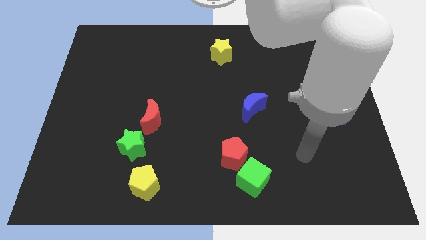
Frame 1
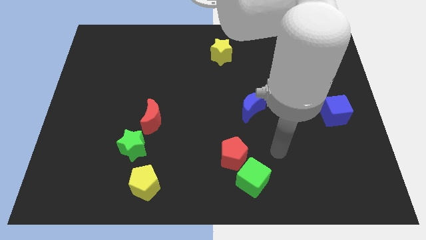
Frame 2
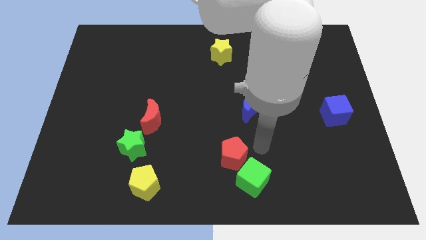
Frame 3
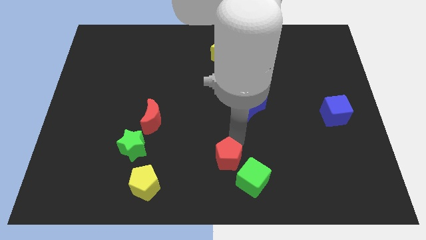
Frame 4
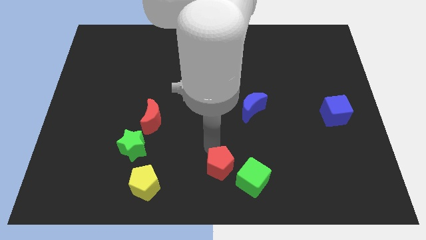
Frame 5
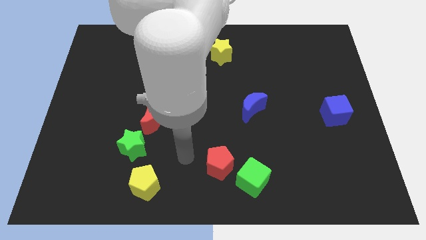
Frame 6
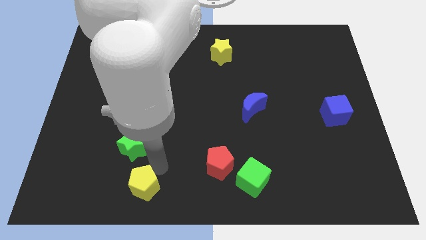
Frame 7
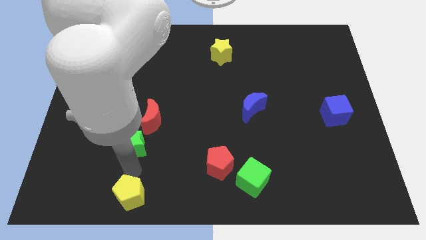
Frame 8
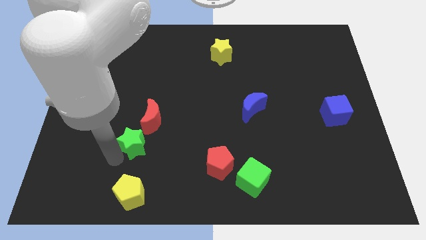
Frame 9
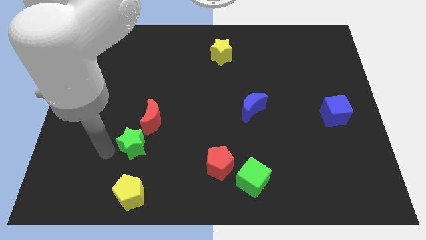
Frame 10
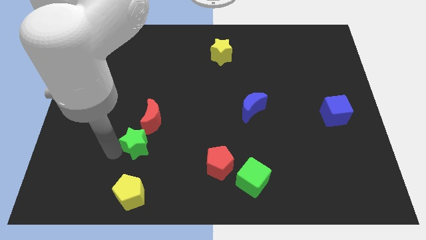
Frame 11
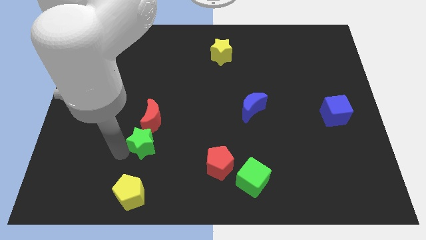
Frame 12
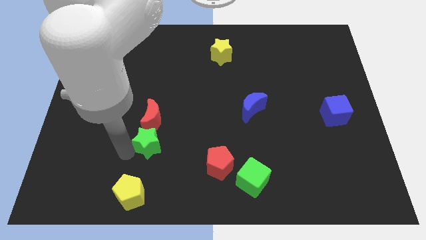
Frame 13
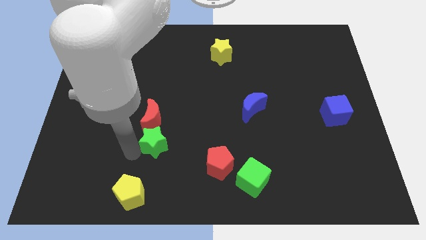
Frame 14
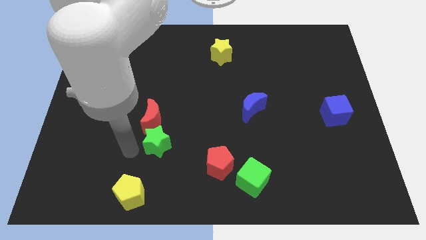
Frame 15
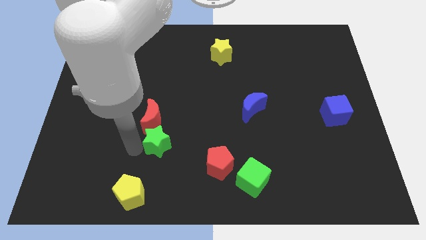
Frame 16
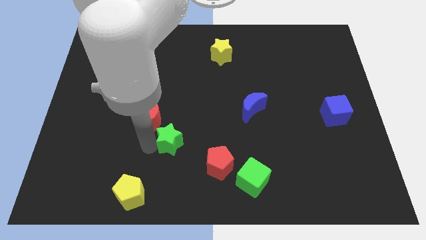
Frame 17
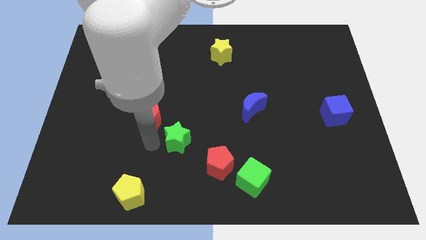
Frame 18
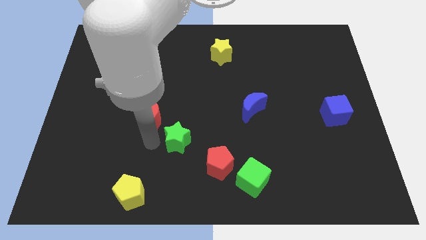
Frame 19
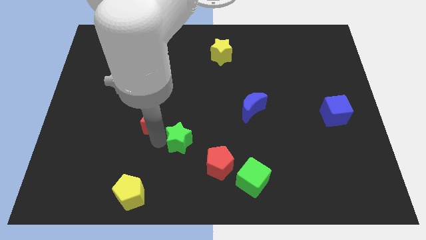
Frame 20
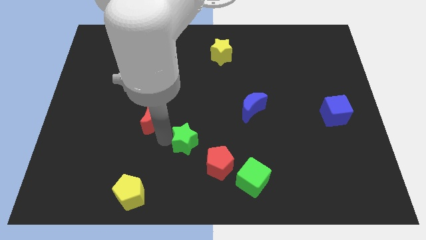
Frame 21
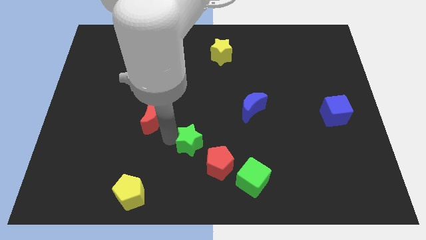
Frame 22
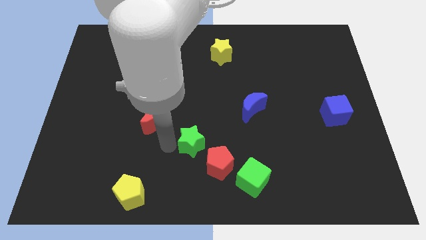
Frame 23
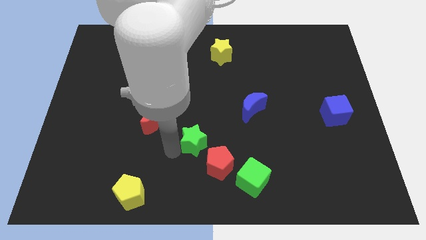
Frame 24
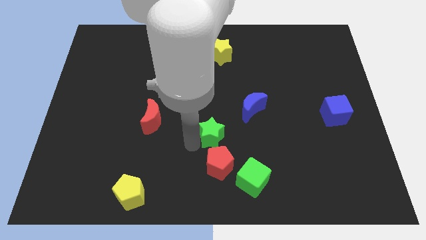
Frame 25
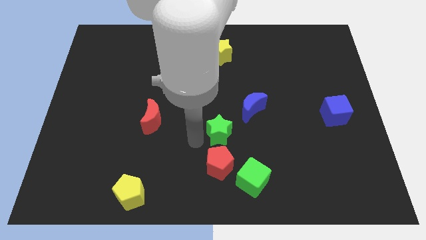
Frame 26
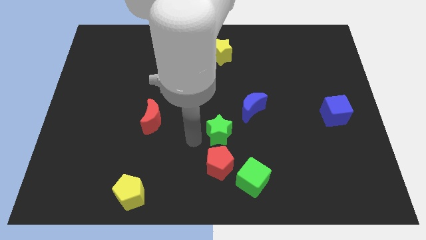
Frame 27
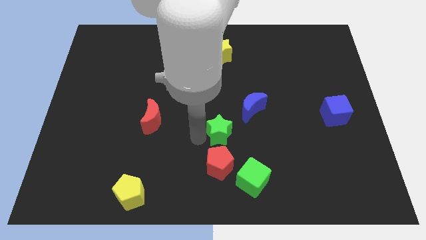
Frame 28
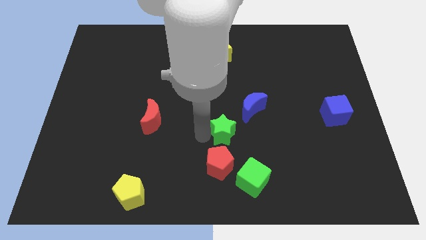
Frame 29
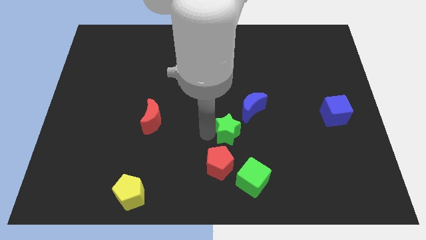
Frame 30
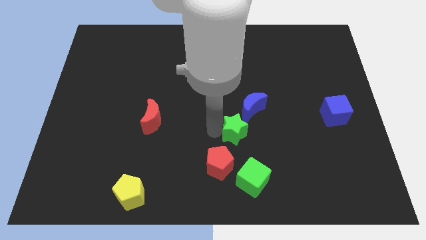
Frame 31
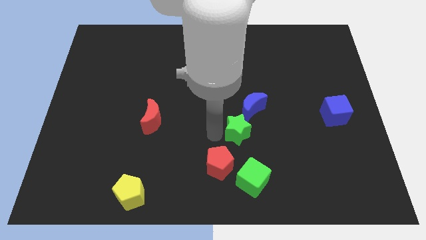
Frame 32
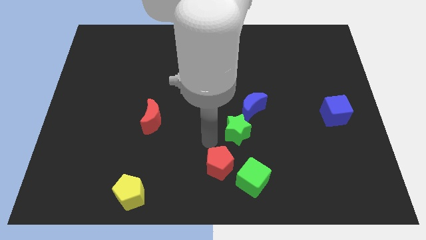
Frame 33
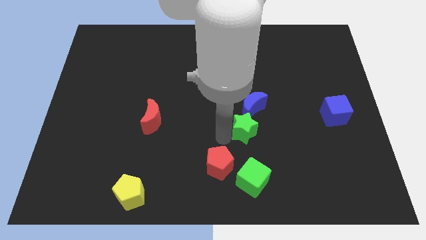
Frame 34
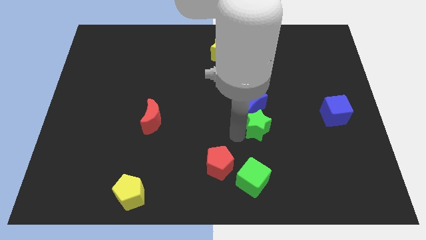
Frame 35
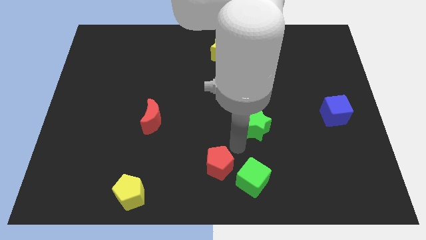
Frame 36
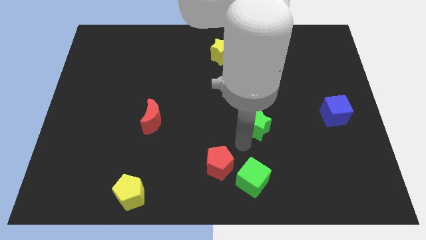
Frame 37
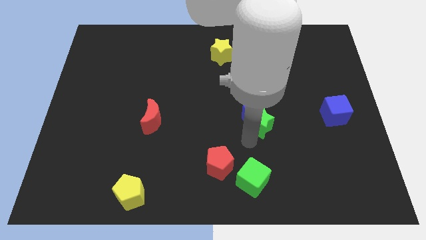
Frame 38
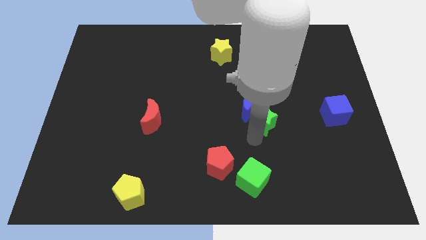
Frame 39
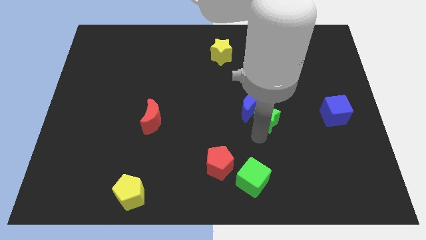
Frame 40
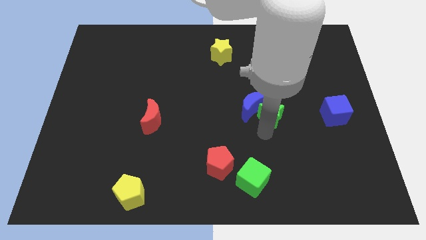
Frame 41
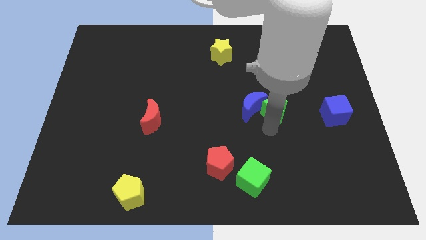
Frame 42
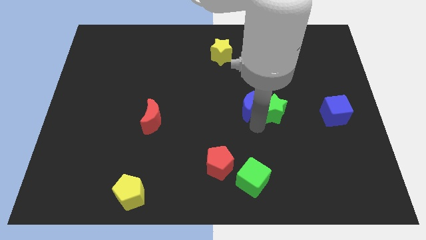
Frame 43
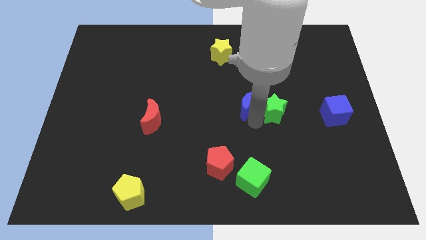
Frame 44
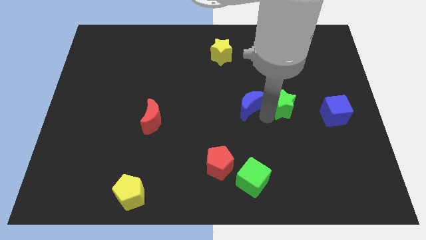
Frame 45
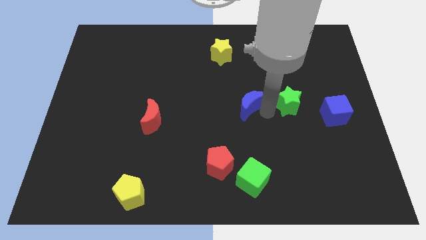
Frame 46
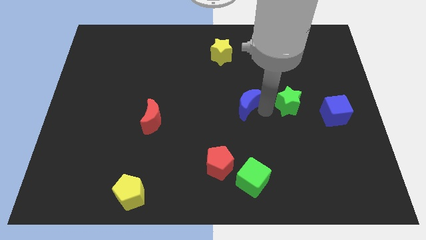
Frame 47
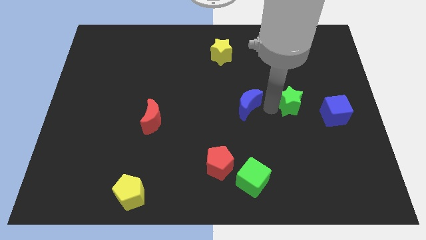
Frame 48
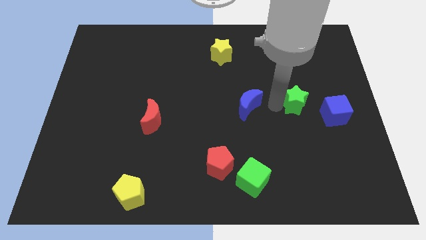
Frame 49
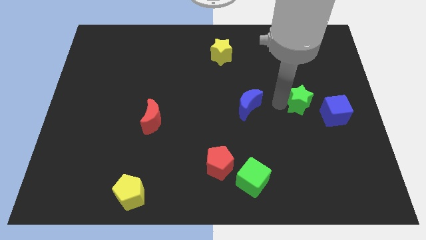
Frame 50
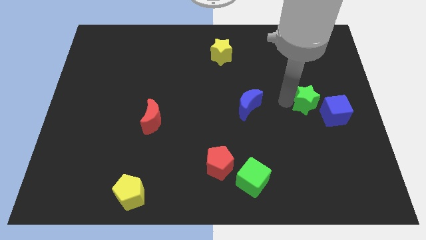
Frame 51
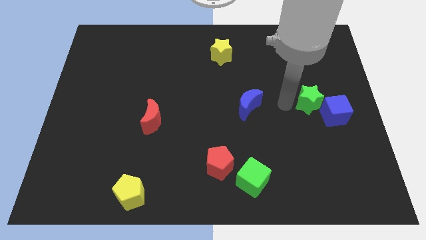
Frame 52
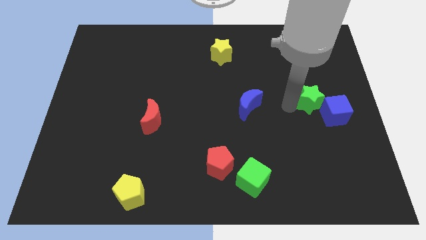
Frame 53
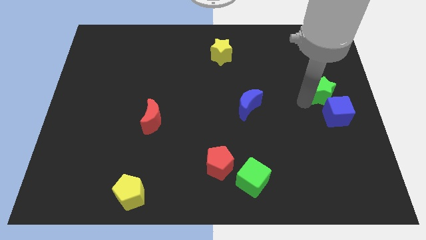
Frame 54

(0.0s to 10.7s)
move the green star to the right side of the board

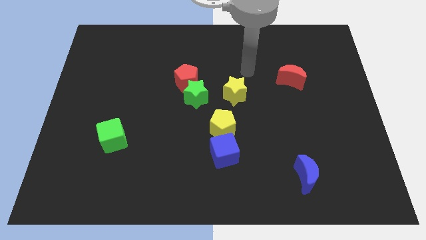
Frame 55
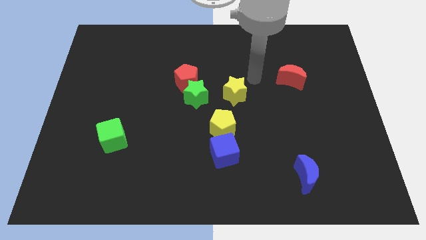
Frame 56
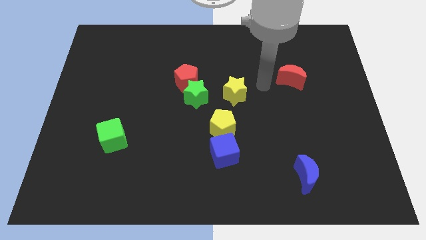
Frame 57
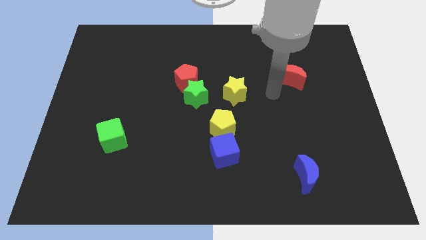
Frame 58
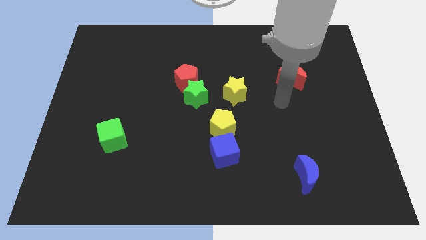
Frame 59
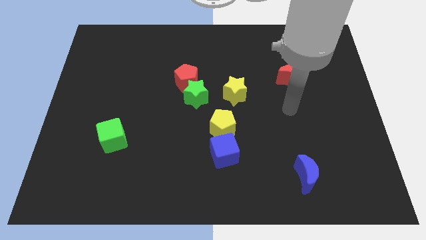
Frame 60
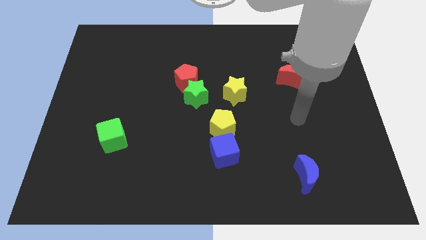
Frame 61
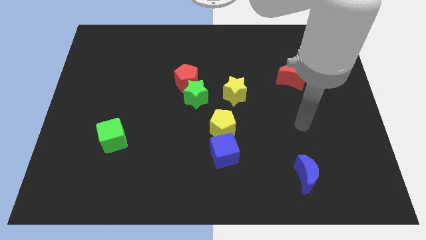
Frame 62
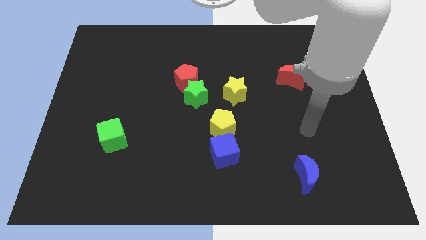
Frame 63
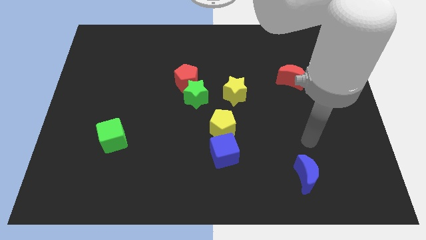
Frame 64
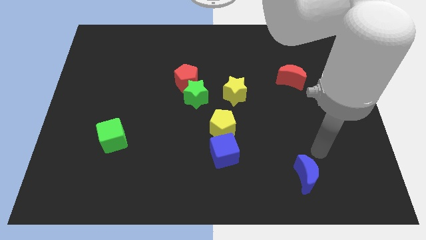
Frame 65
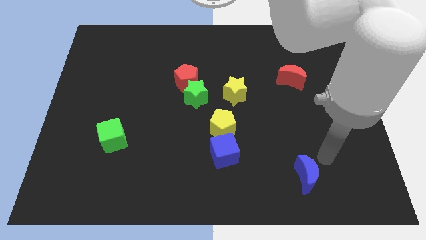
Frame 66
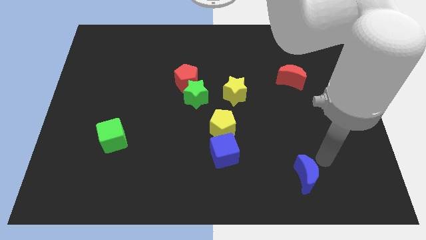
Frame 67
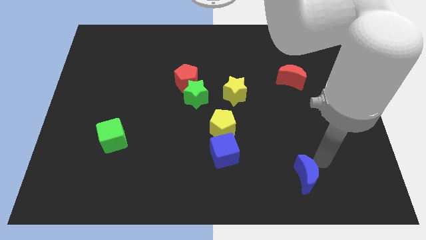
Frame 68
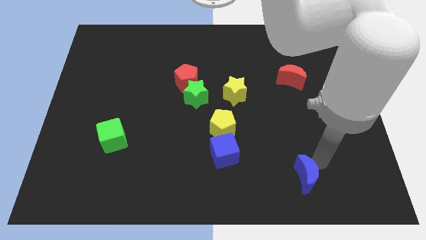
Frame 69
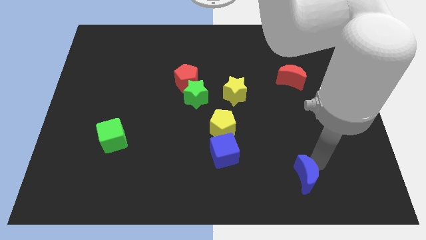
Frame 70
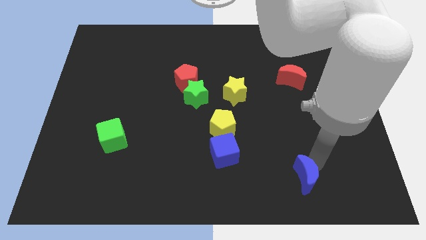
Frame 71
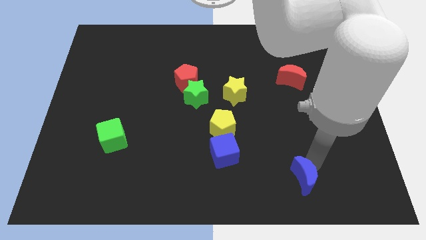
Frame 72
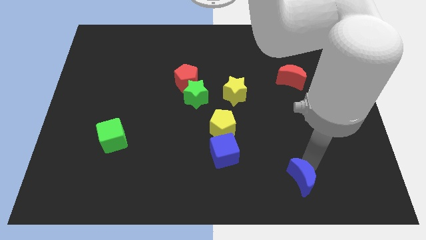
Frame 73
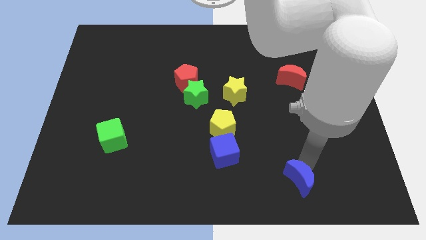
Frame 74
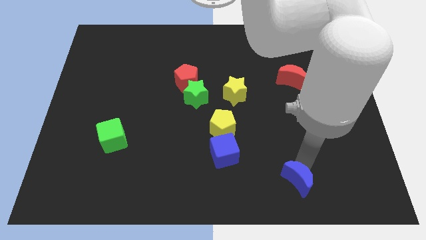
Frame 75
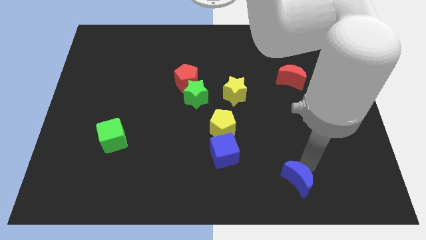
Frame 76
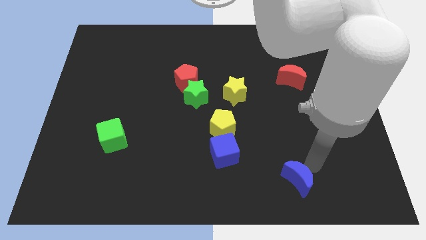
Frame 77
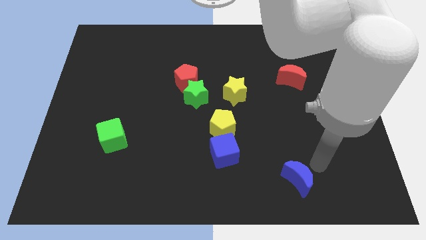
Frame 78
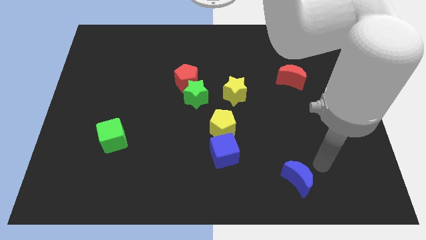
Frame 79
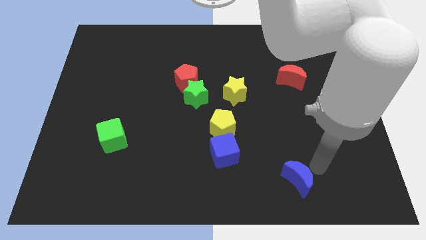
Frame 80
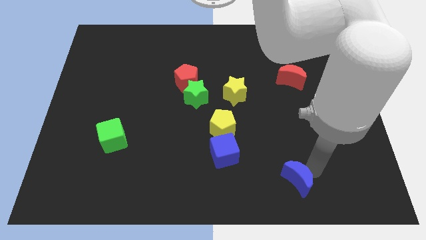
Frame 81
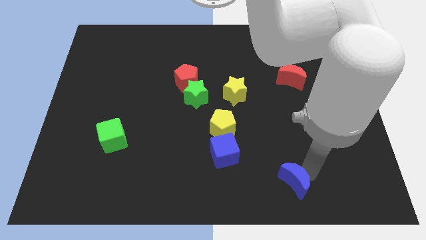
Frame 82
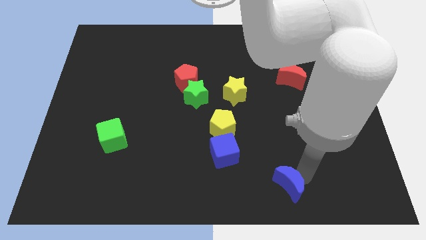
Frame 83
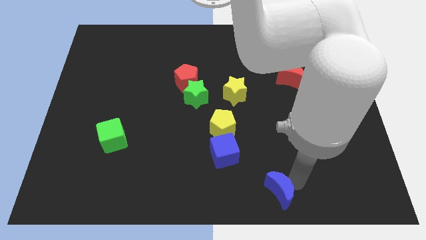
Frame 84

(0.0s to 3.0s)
move the blue moon to the bottom side
